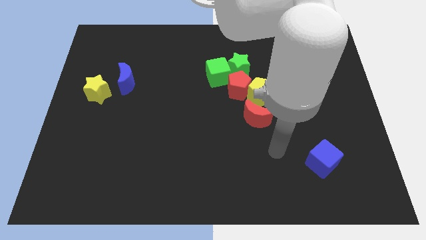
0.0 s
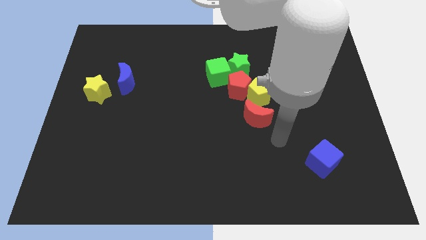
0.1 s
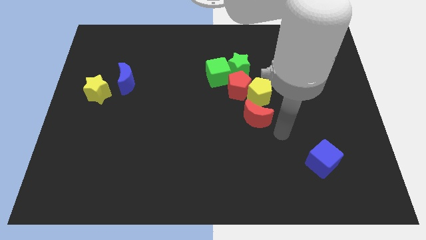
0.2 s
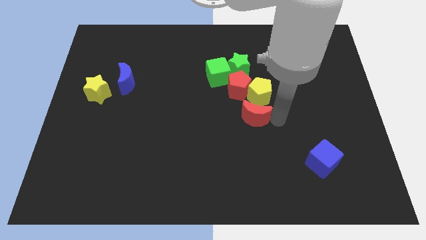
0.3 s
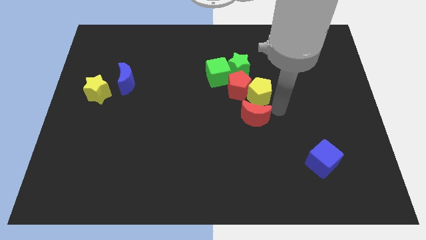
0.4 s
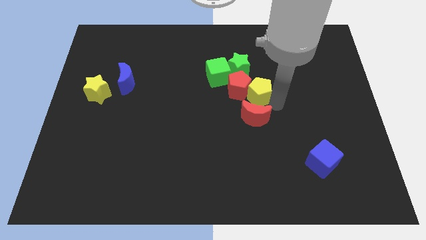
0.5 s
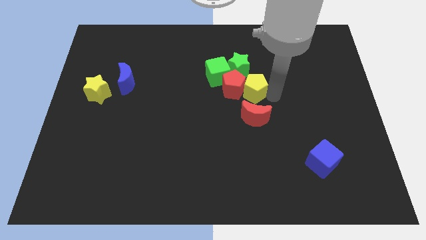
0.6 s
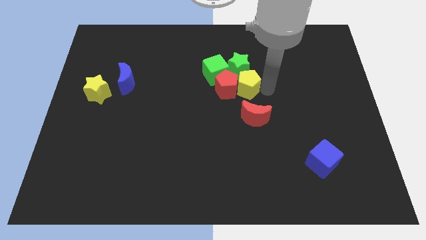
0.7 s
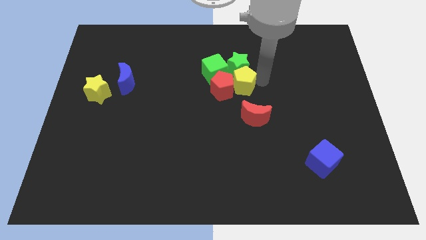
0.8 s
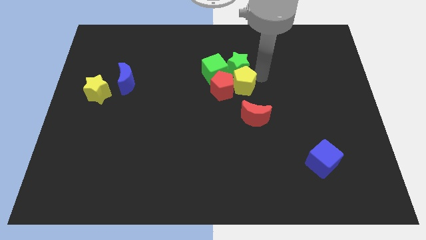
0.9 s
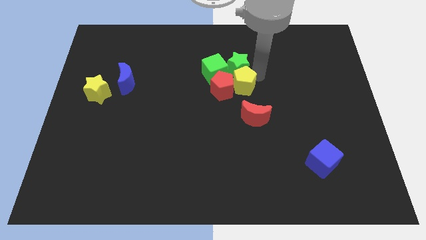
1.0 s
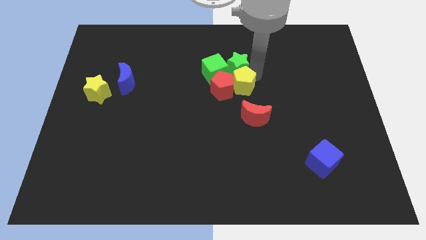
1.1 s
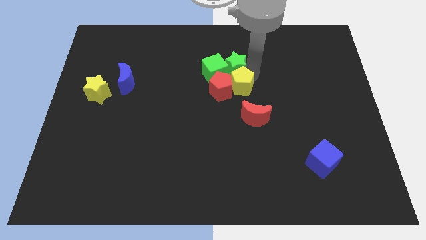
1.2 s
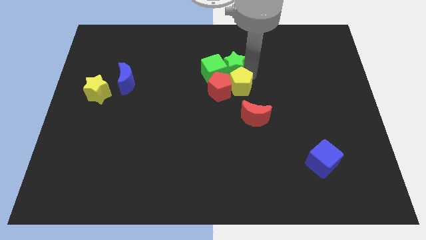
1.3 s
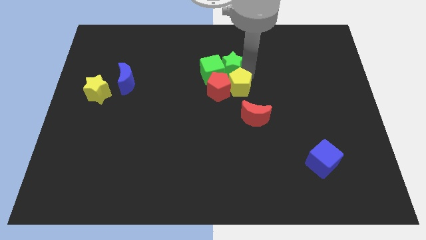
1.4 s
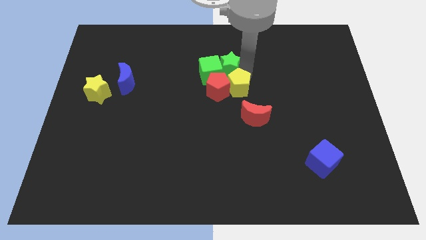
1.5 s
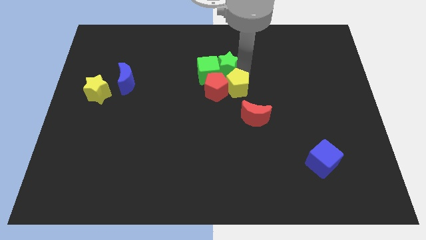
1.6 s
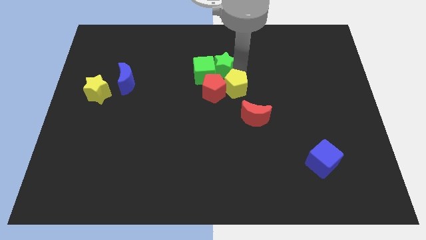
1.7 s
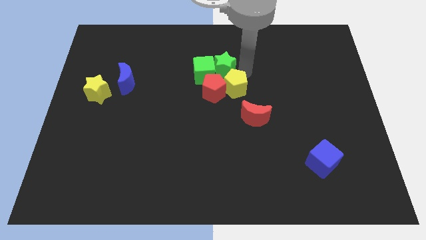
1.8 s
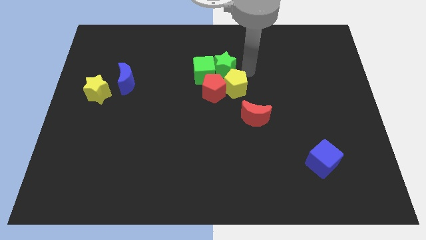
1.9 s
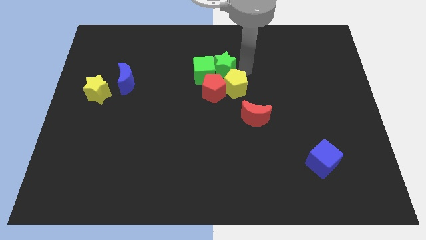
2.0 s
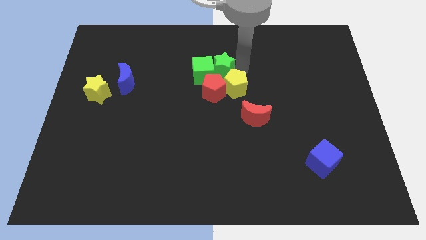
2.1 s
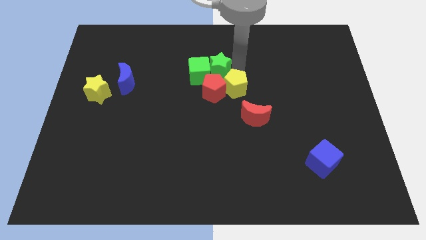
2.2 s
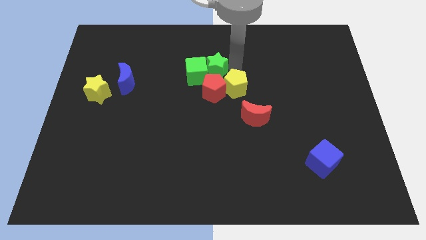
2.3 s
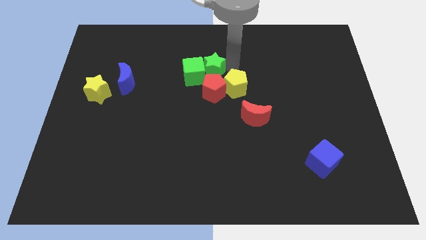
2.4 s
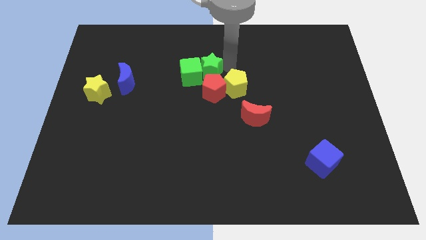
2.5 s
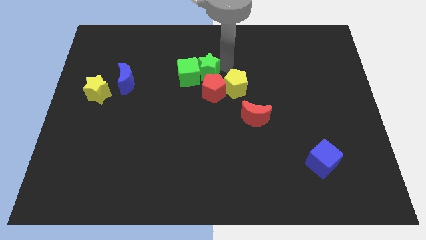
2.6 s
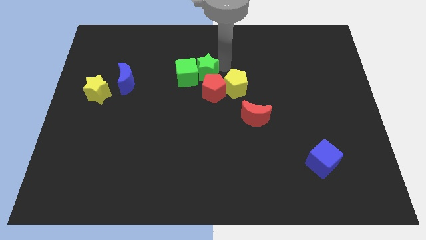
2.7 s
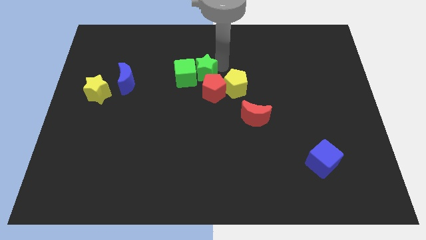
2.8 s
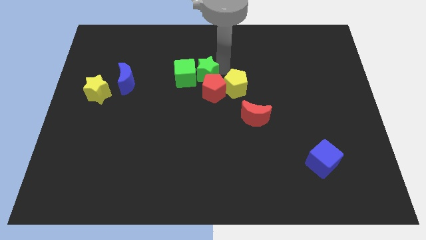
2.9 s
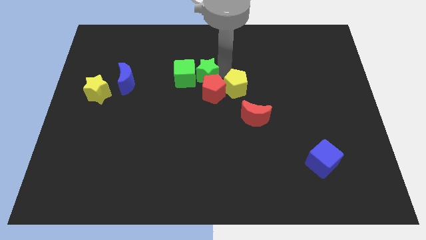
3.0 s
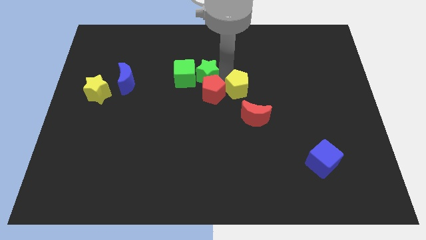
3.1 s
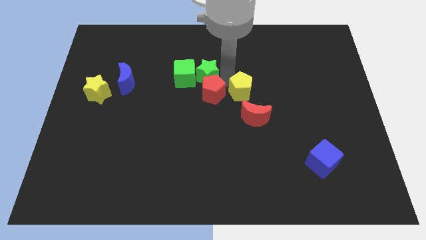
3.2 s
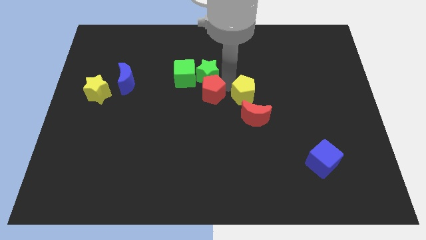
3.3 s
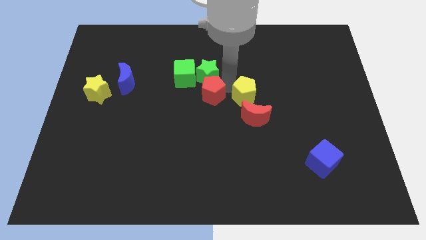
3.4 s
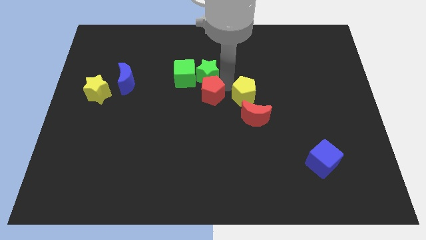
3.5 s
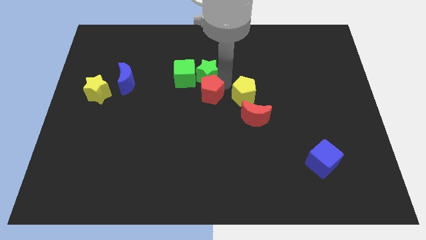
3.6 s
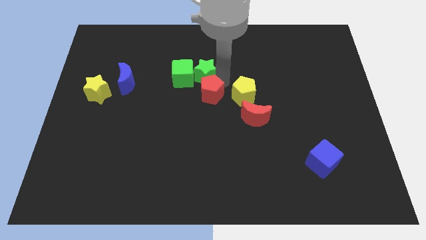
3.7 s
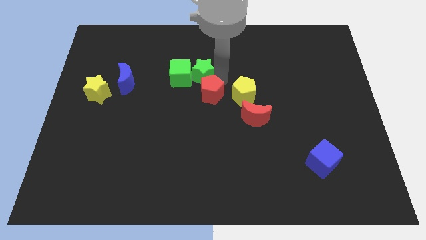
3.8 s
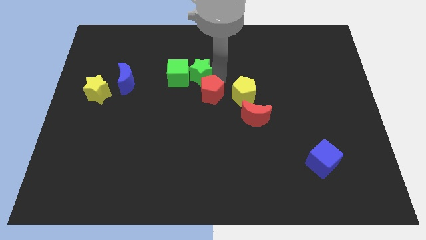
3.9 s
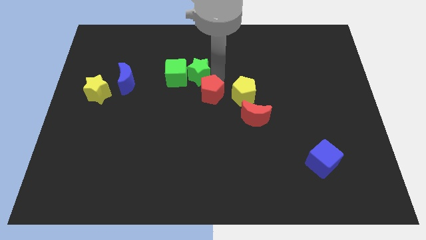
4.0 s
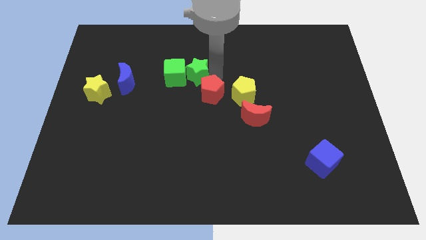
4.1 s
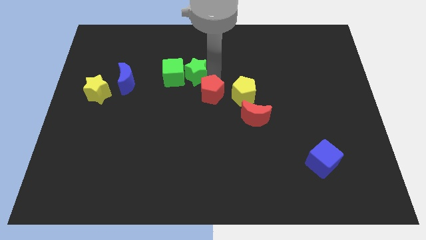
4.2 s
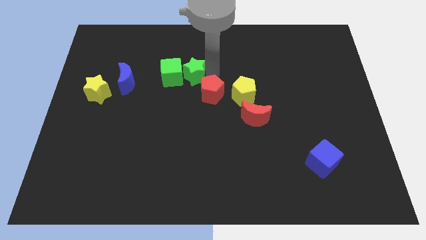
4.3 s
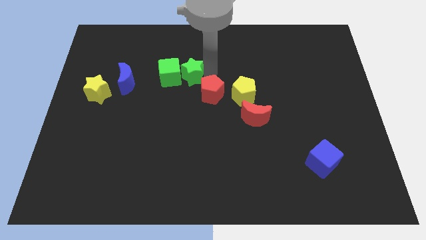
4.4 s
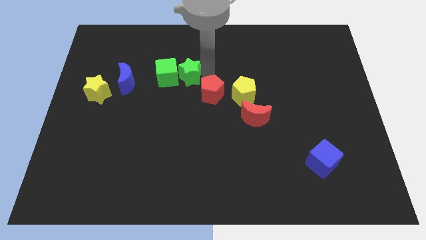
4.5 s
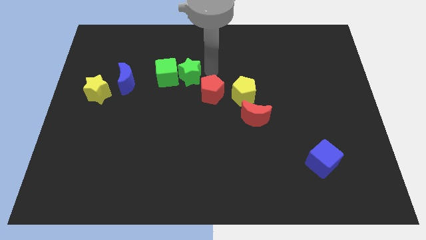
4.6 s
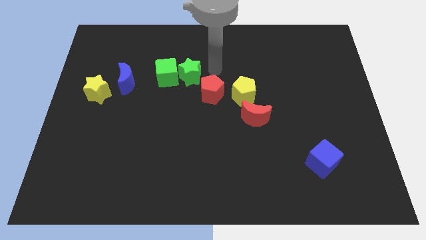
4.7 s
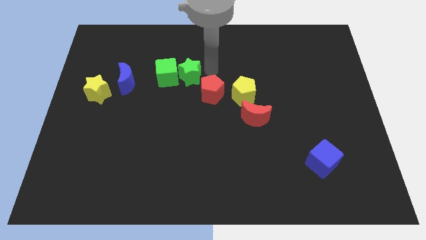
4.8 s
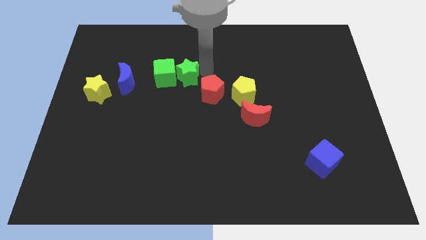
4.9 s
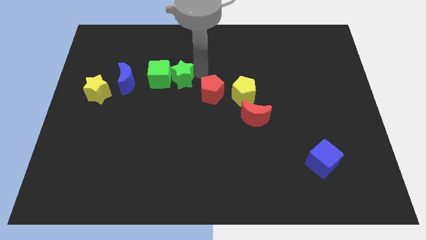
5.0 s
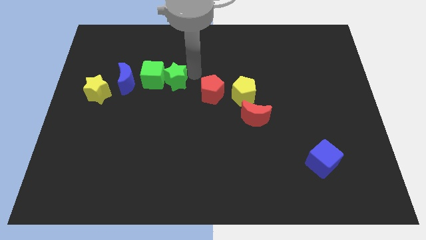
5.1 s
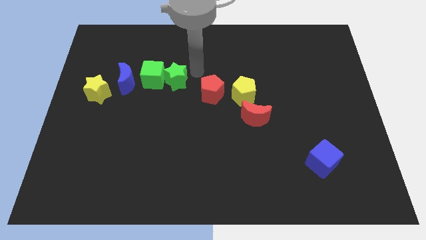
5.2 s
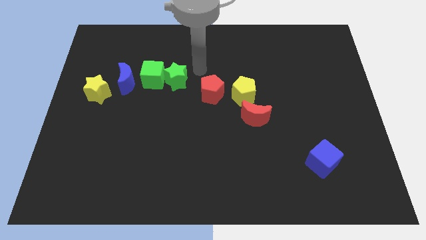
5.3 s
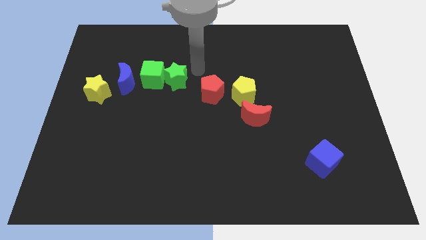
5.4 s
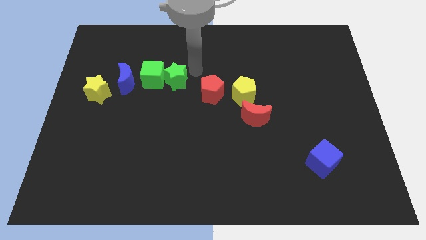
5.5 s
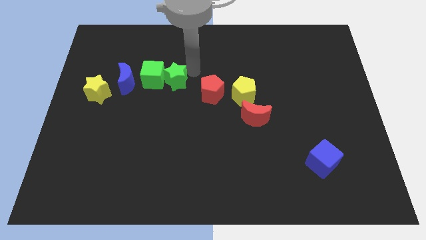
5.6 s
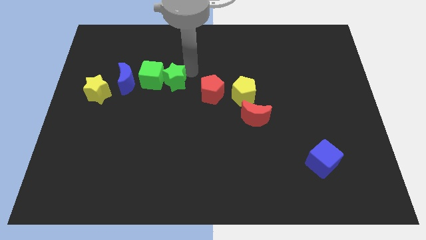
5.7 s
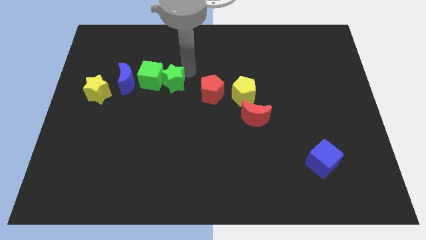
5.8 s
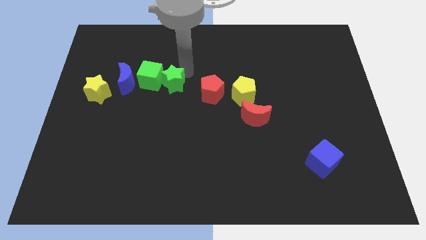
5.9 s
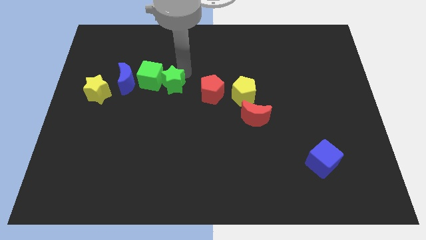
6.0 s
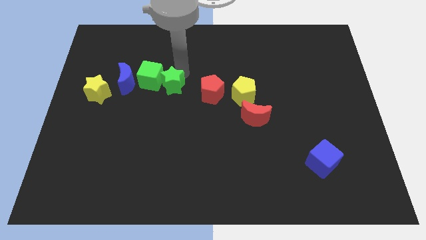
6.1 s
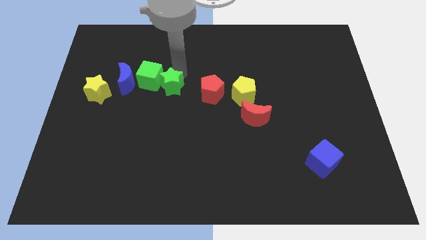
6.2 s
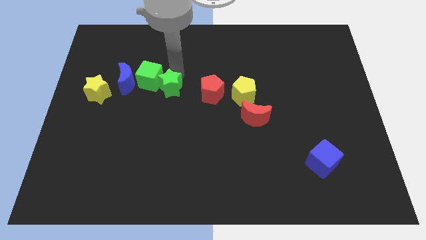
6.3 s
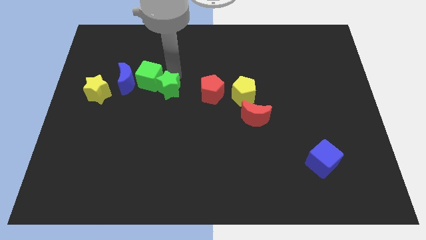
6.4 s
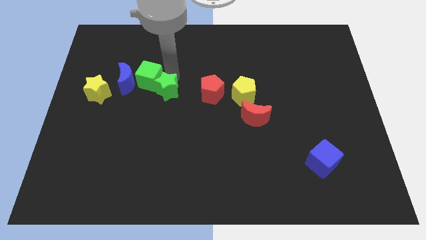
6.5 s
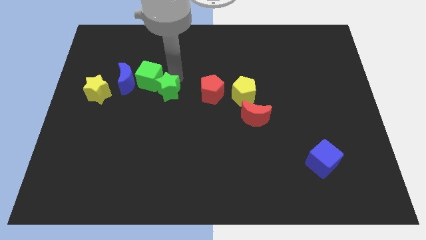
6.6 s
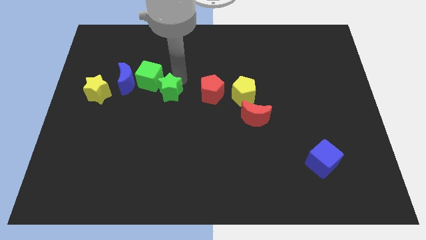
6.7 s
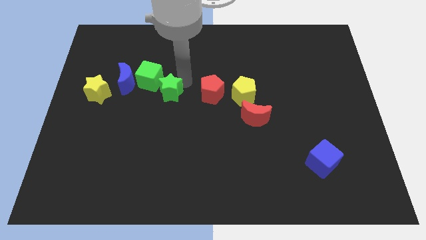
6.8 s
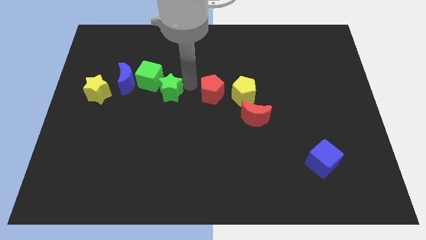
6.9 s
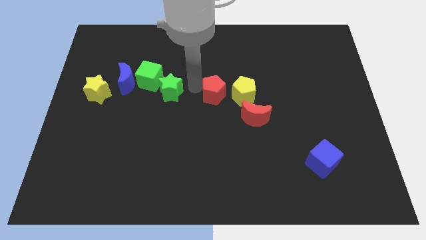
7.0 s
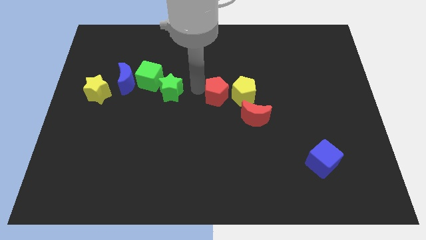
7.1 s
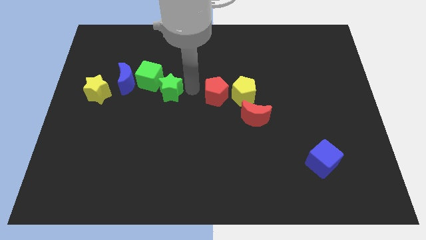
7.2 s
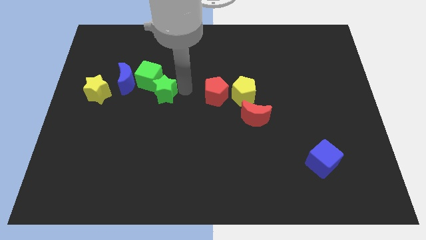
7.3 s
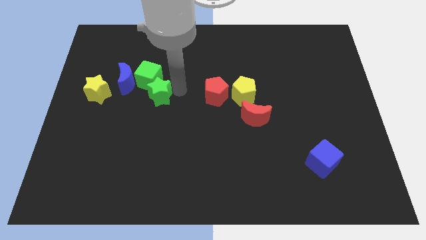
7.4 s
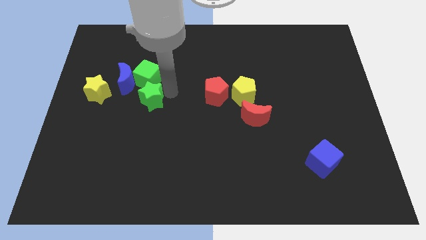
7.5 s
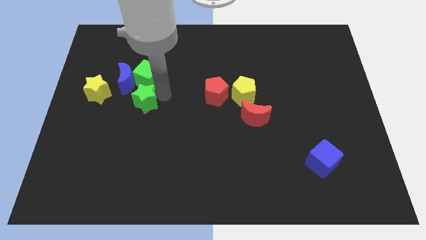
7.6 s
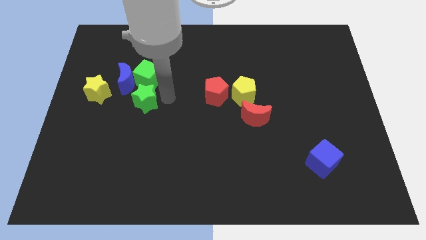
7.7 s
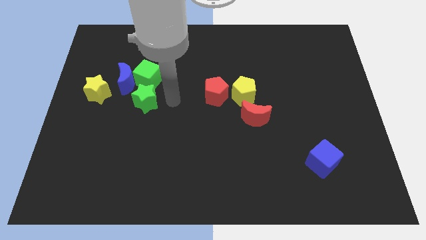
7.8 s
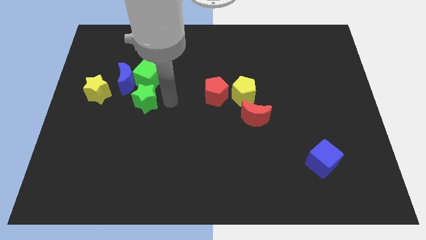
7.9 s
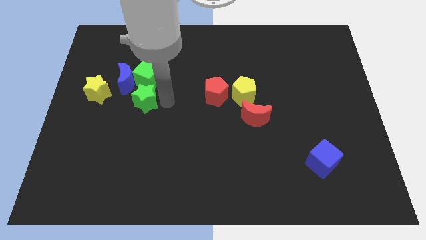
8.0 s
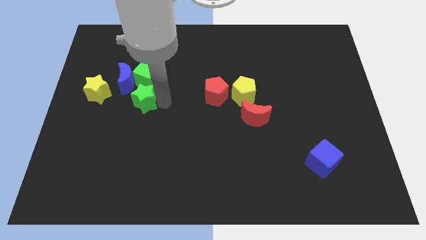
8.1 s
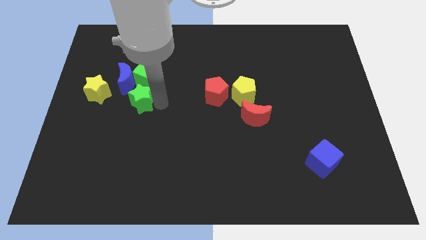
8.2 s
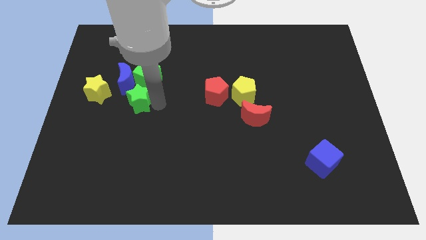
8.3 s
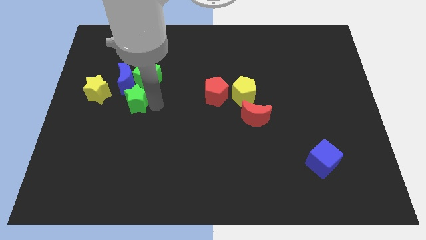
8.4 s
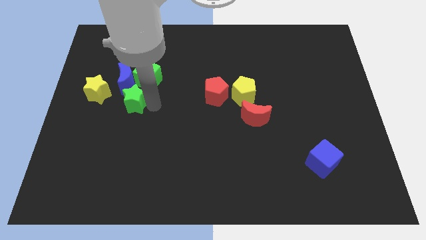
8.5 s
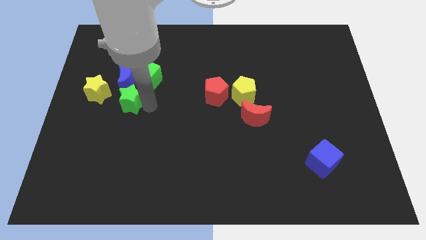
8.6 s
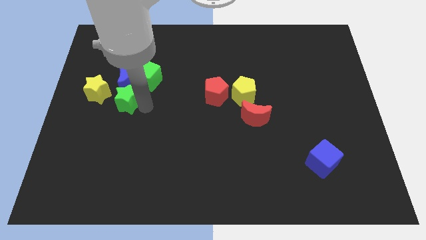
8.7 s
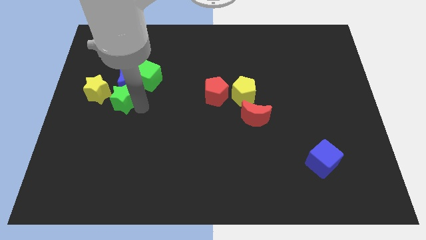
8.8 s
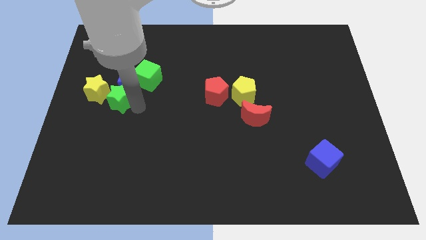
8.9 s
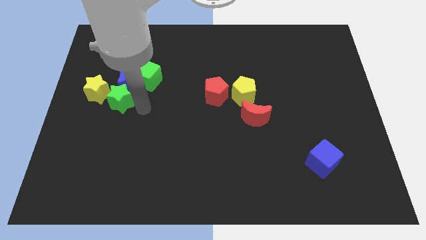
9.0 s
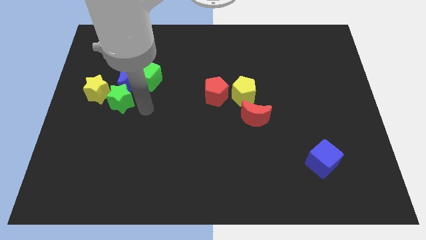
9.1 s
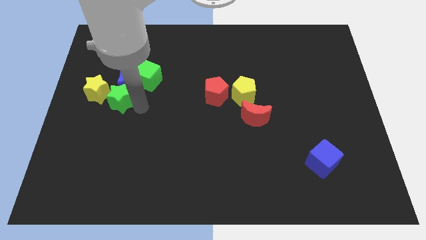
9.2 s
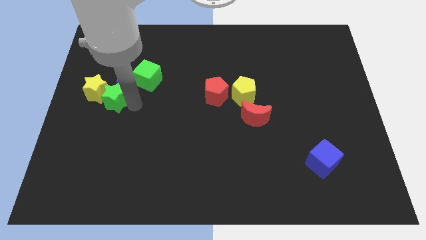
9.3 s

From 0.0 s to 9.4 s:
put the green star close to the yellow star
